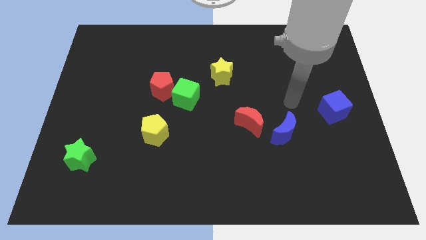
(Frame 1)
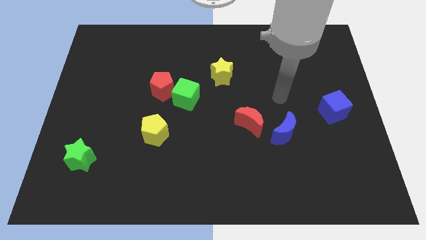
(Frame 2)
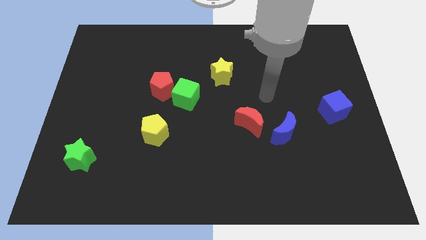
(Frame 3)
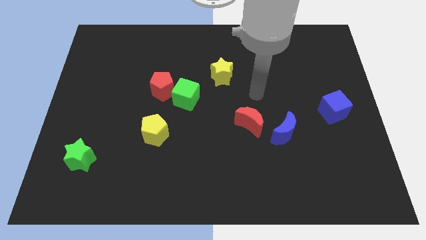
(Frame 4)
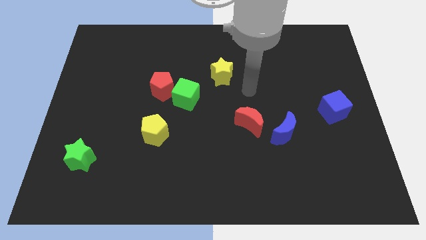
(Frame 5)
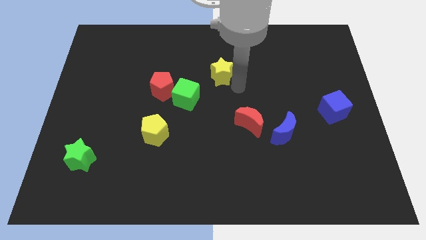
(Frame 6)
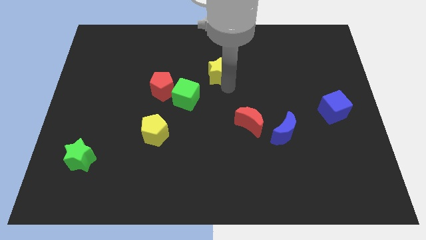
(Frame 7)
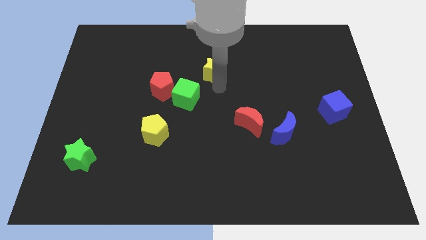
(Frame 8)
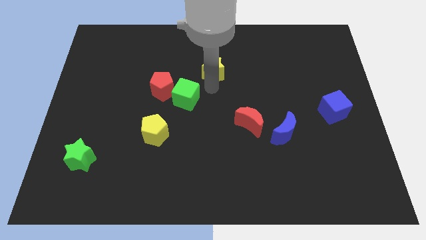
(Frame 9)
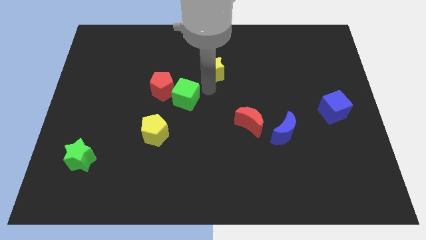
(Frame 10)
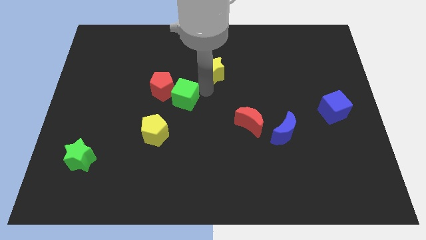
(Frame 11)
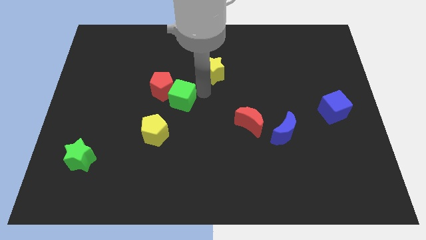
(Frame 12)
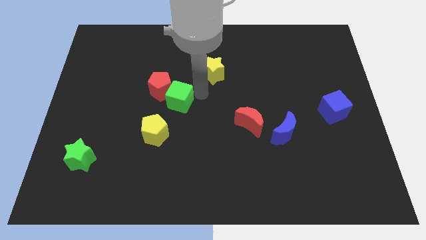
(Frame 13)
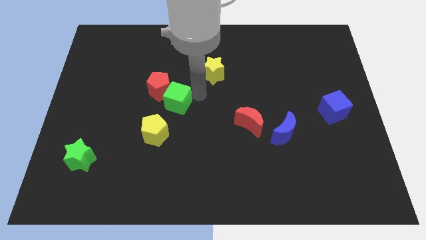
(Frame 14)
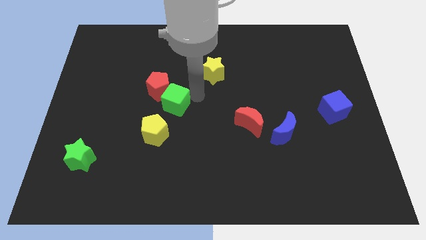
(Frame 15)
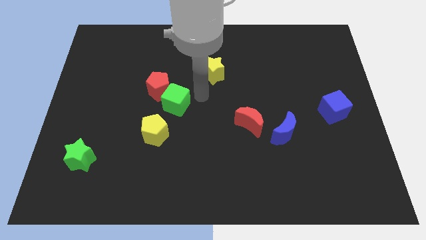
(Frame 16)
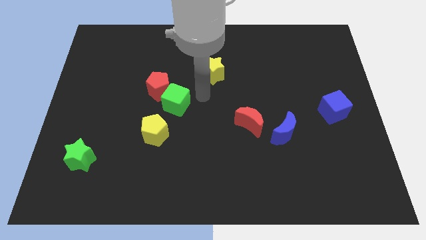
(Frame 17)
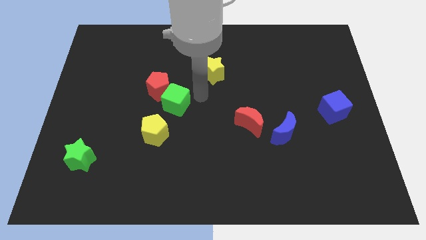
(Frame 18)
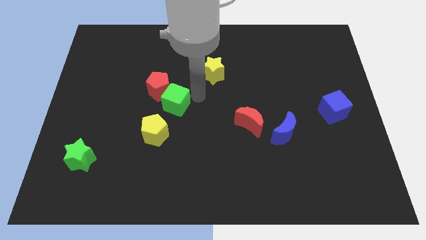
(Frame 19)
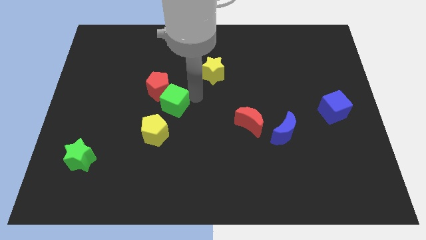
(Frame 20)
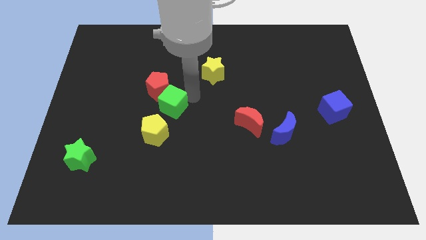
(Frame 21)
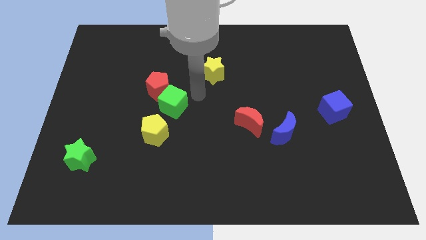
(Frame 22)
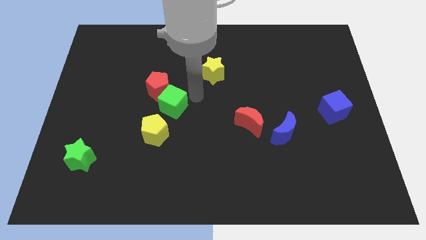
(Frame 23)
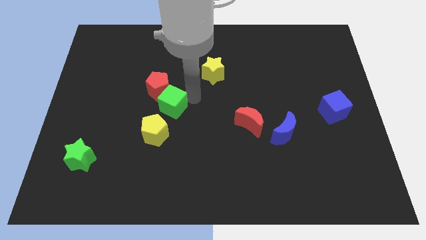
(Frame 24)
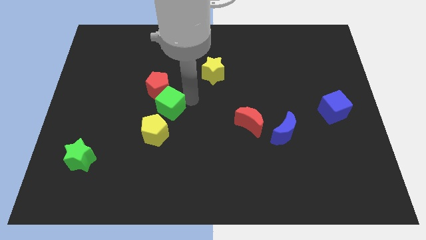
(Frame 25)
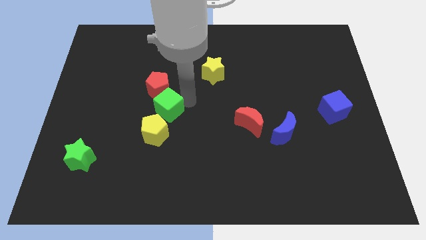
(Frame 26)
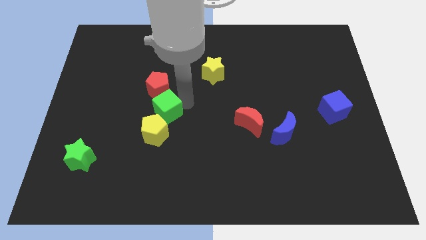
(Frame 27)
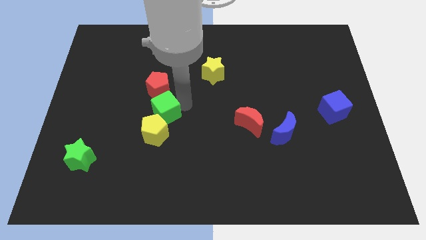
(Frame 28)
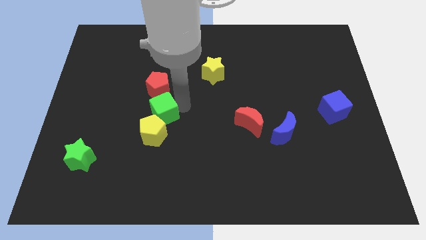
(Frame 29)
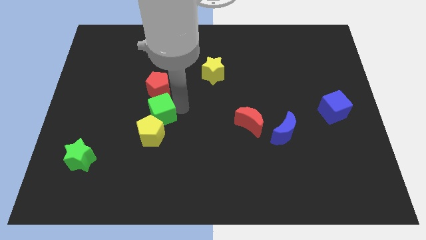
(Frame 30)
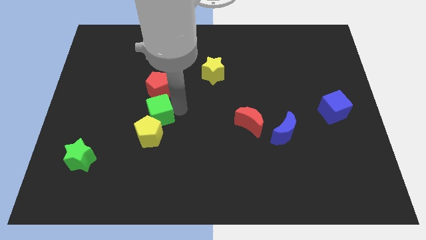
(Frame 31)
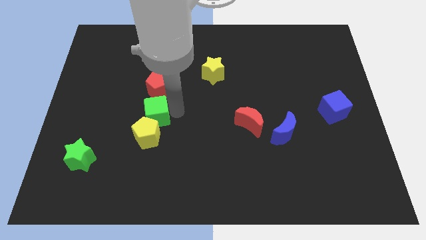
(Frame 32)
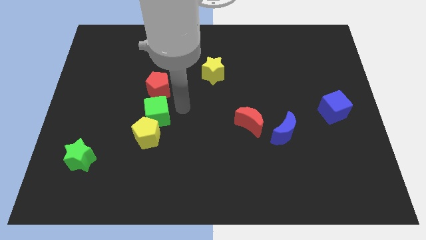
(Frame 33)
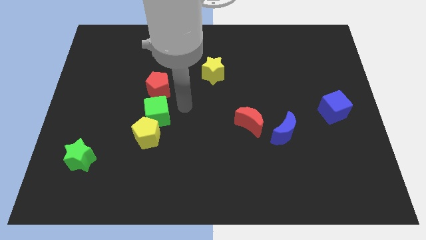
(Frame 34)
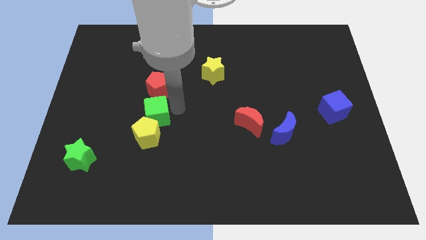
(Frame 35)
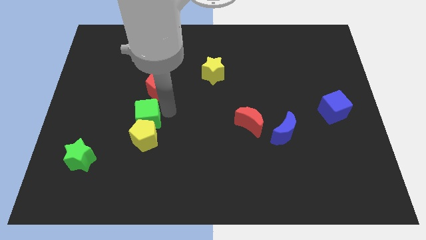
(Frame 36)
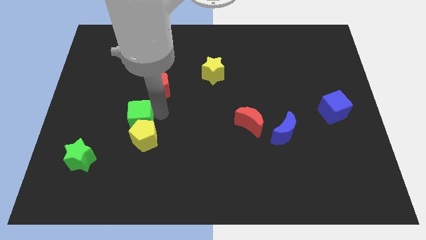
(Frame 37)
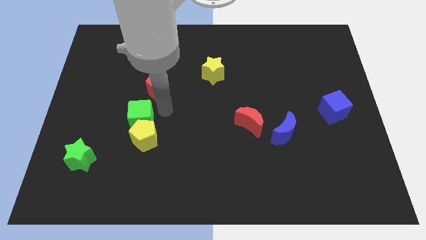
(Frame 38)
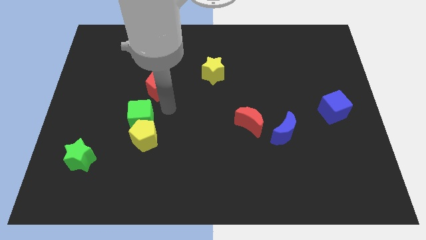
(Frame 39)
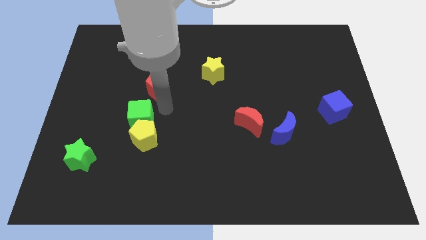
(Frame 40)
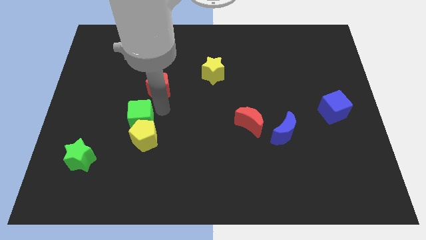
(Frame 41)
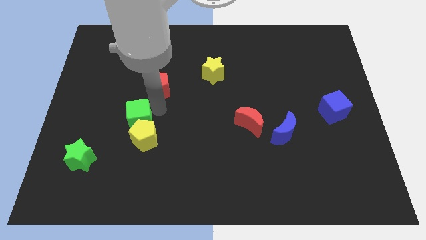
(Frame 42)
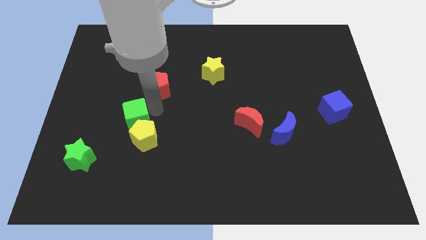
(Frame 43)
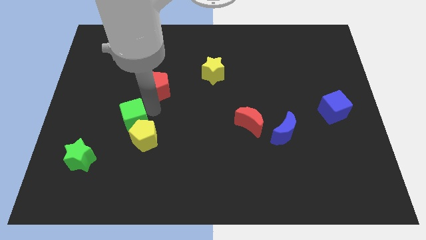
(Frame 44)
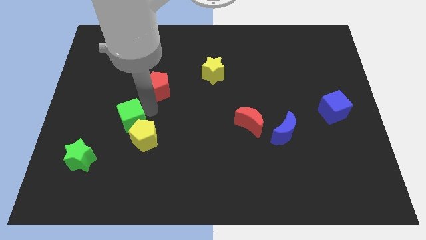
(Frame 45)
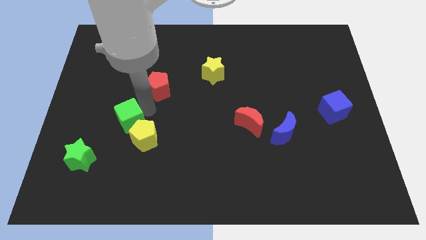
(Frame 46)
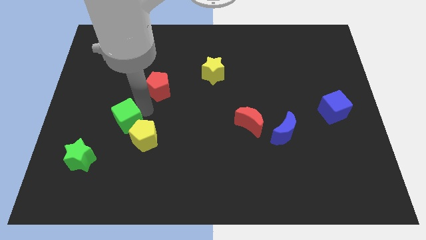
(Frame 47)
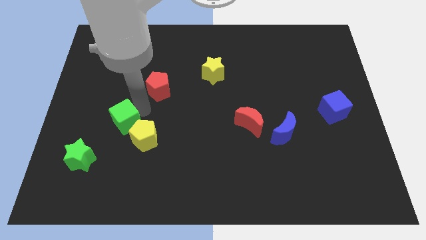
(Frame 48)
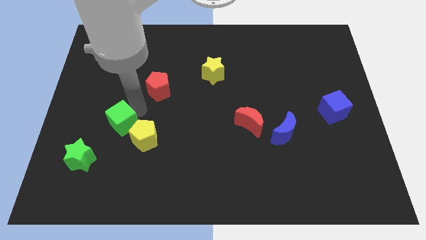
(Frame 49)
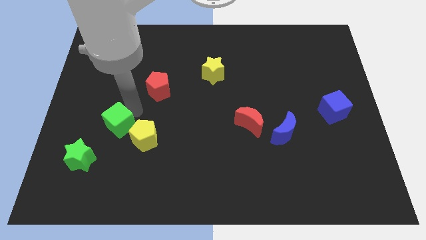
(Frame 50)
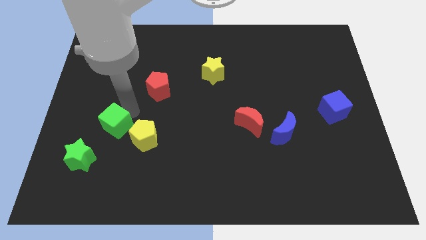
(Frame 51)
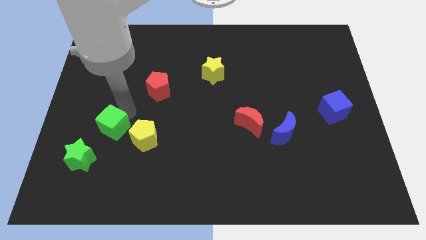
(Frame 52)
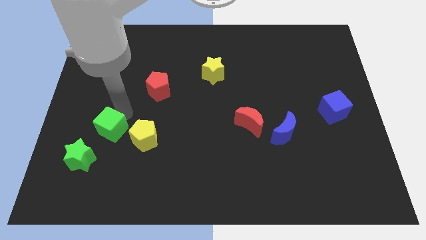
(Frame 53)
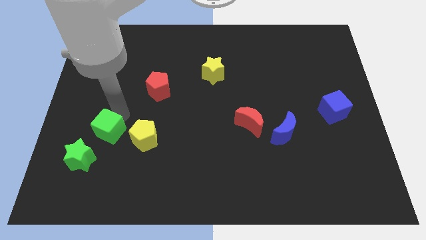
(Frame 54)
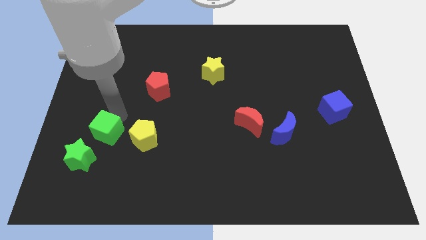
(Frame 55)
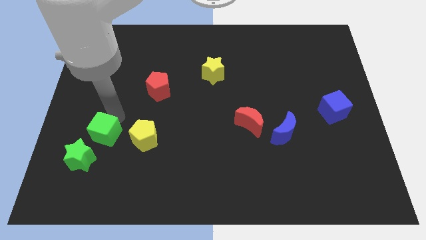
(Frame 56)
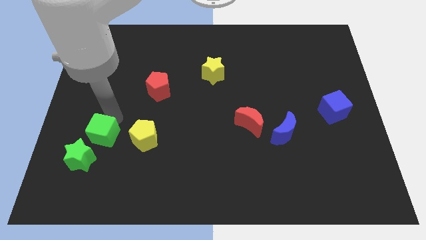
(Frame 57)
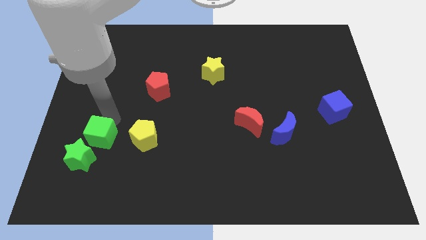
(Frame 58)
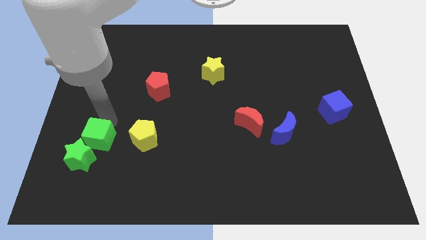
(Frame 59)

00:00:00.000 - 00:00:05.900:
put the green cube to the green star

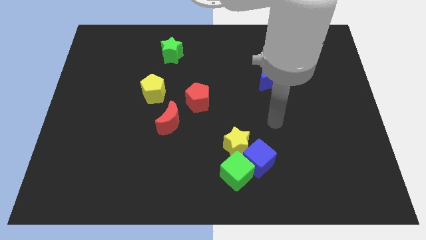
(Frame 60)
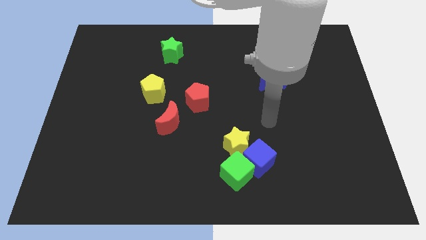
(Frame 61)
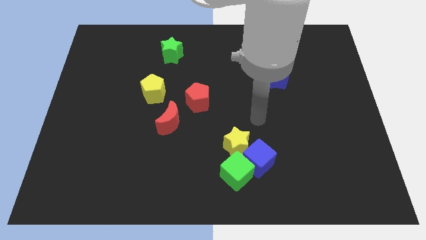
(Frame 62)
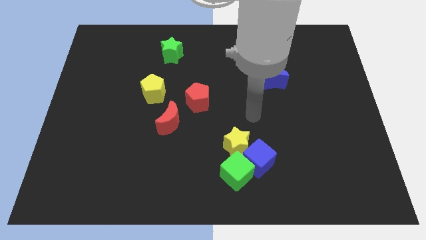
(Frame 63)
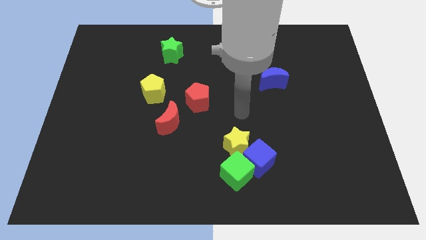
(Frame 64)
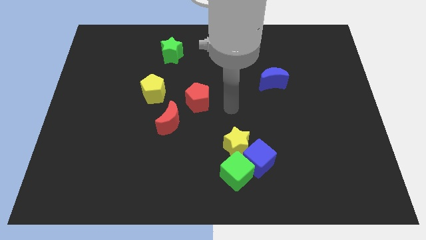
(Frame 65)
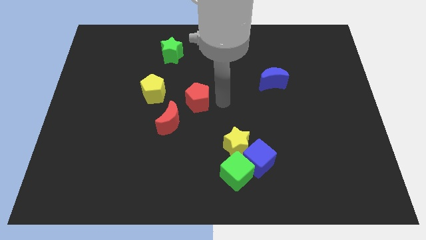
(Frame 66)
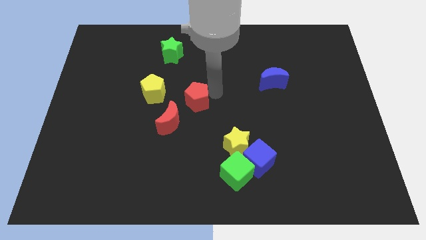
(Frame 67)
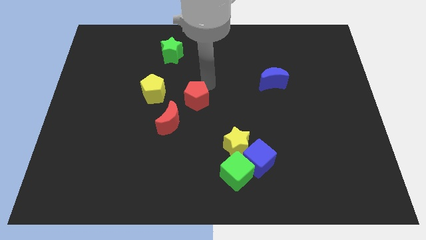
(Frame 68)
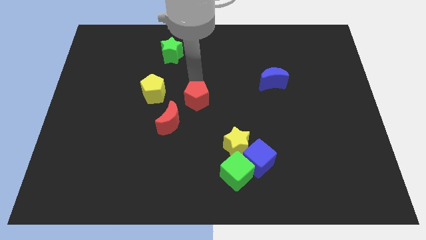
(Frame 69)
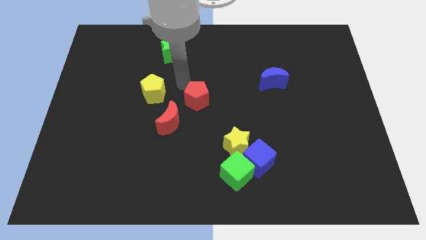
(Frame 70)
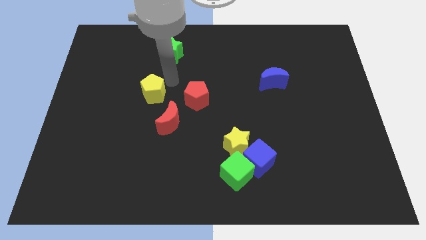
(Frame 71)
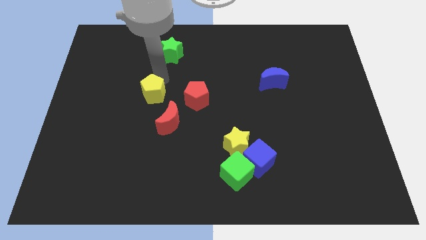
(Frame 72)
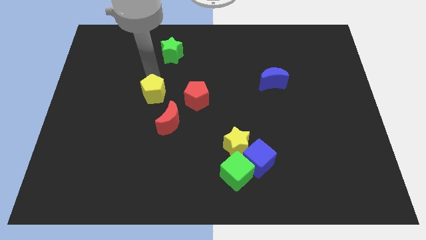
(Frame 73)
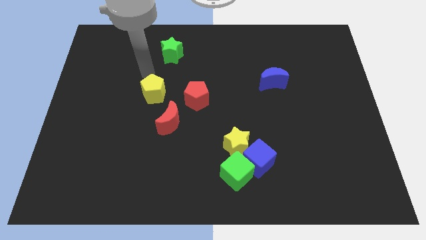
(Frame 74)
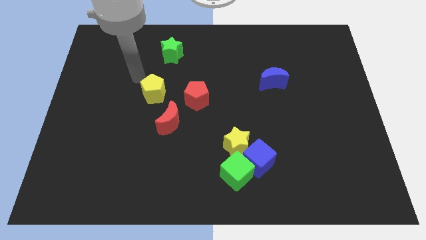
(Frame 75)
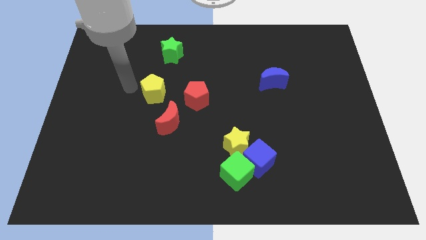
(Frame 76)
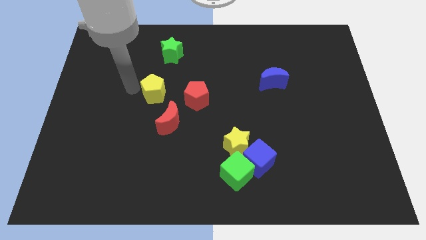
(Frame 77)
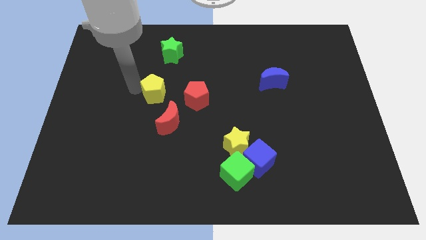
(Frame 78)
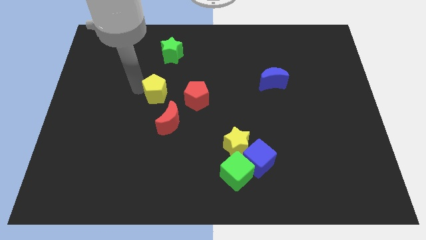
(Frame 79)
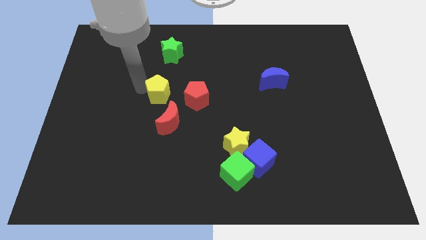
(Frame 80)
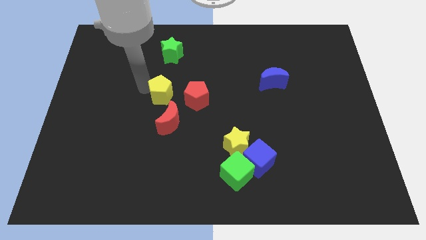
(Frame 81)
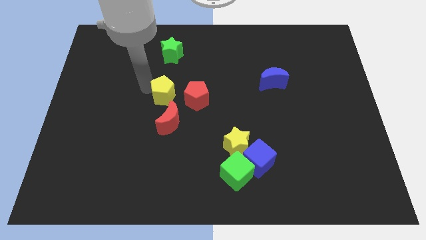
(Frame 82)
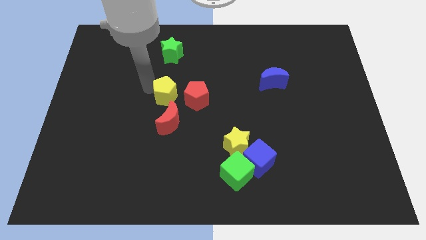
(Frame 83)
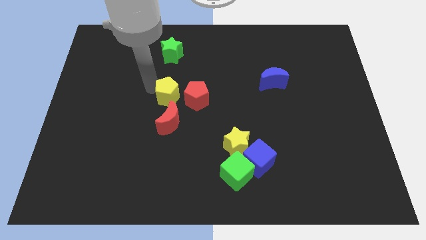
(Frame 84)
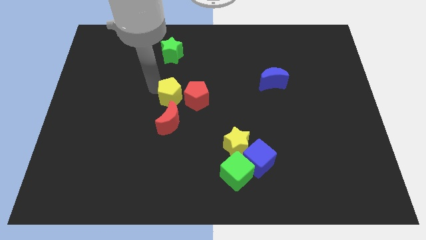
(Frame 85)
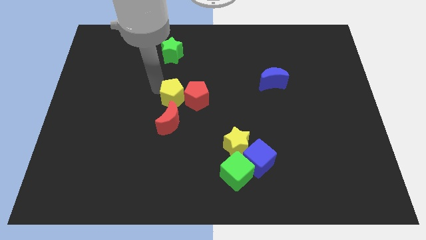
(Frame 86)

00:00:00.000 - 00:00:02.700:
move the yellow pentagon next to the red pentagon
